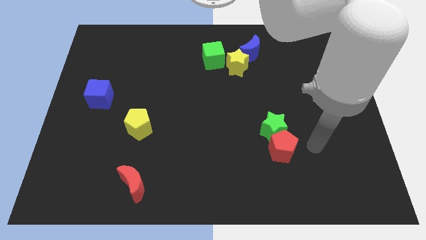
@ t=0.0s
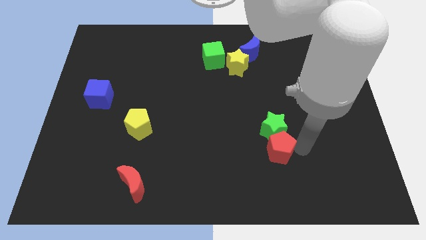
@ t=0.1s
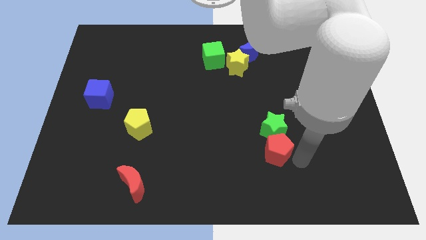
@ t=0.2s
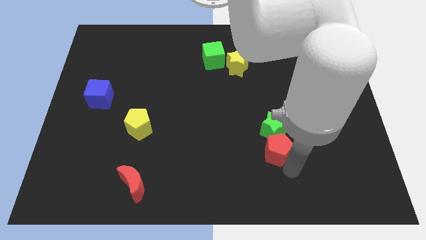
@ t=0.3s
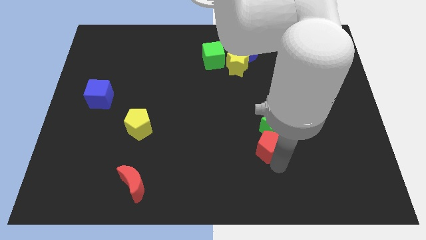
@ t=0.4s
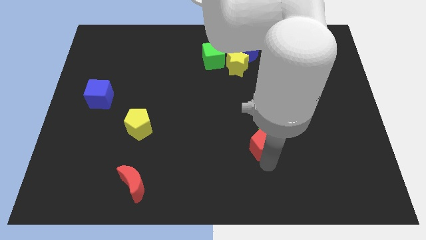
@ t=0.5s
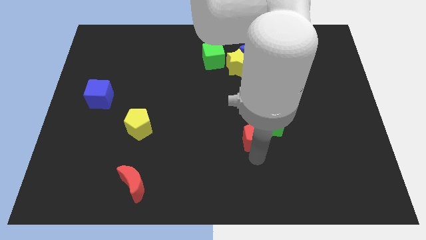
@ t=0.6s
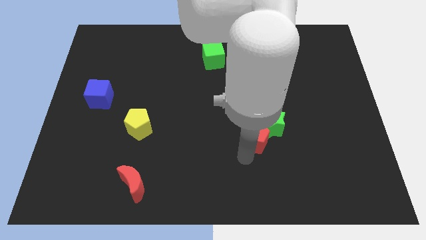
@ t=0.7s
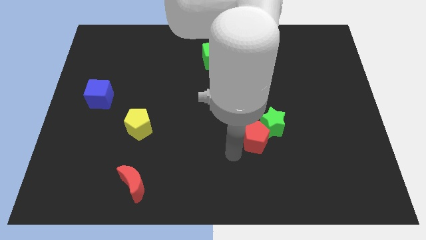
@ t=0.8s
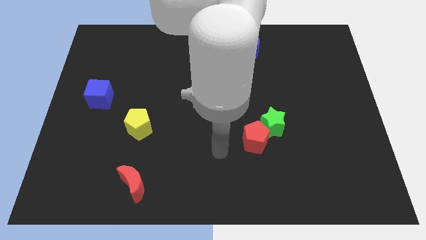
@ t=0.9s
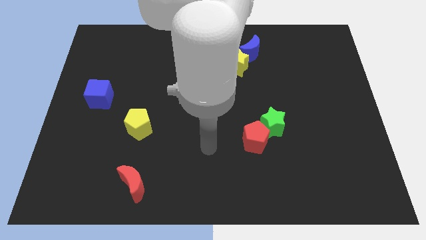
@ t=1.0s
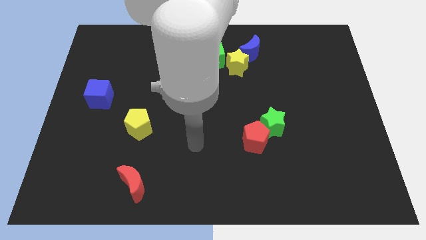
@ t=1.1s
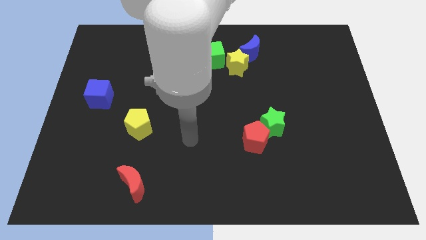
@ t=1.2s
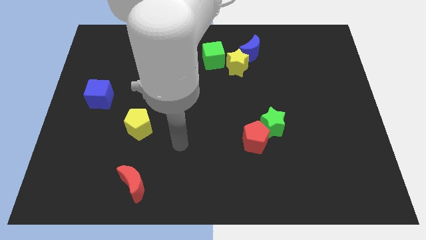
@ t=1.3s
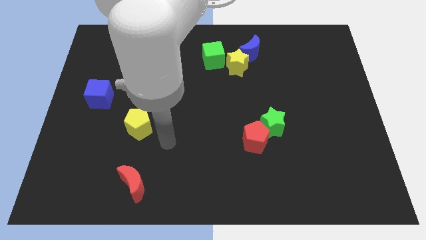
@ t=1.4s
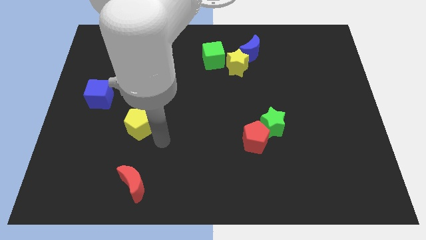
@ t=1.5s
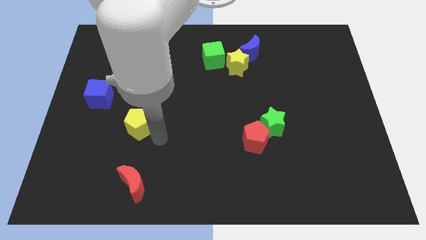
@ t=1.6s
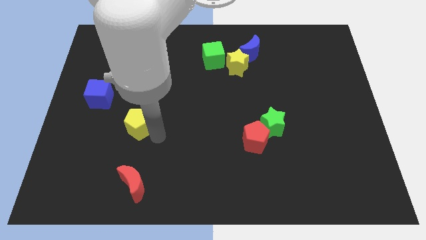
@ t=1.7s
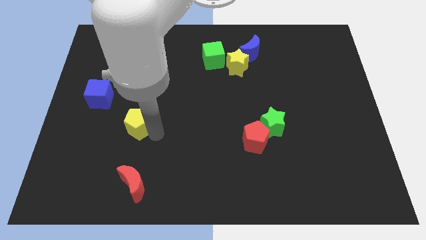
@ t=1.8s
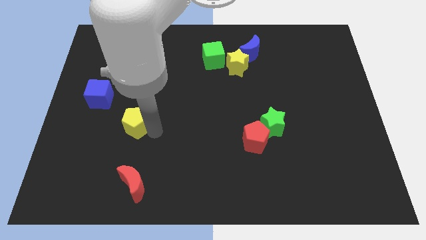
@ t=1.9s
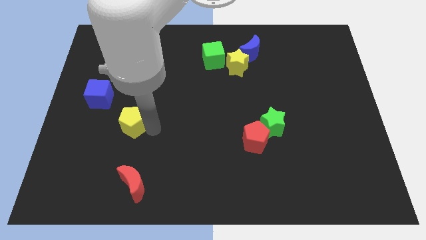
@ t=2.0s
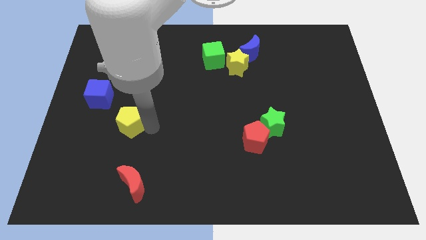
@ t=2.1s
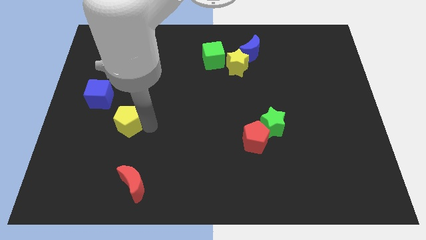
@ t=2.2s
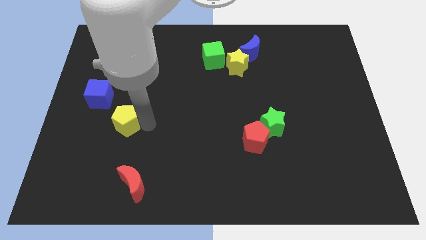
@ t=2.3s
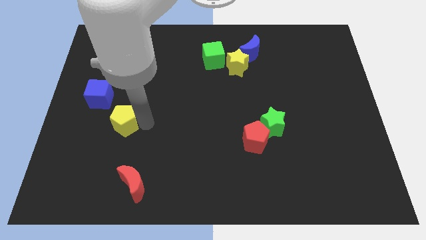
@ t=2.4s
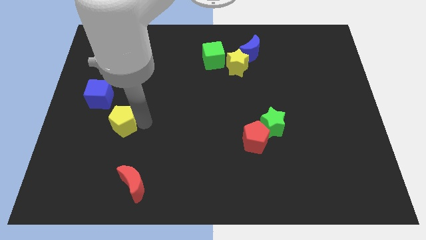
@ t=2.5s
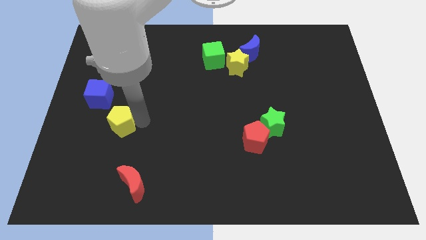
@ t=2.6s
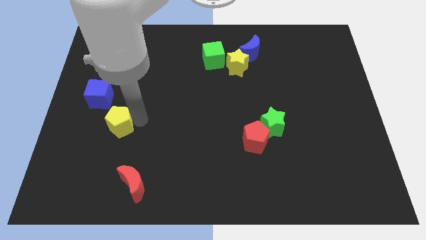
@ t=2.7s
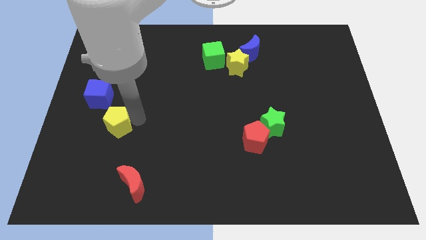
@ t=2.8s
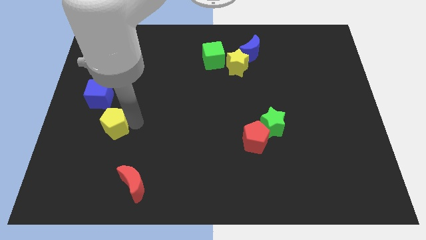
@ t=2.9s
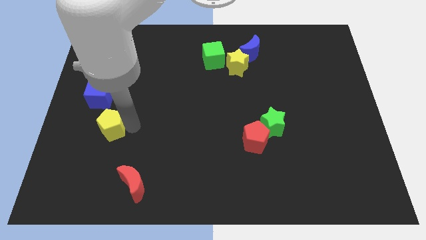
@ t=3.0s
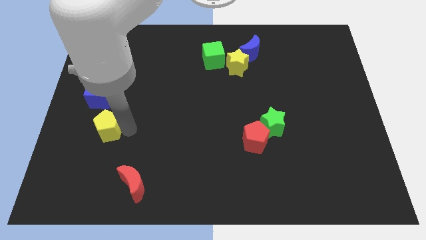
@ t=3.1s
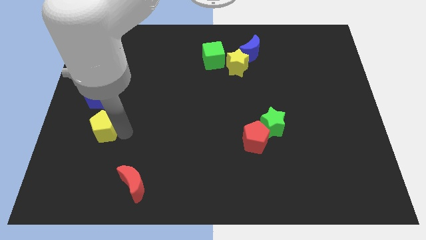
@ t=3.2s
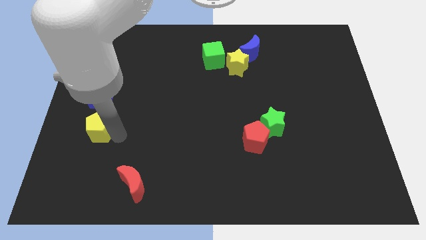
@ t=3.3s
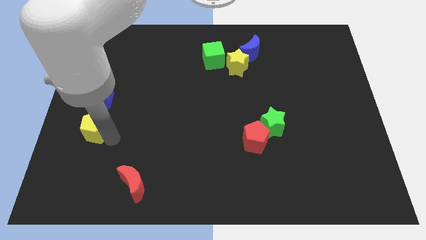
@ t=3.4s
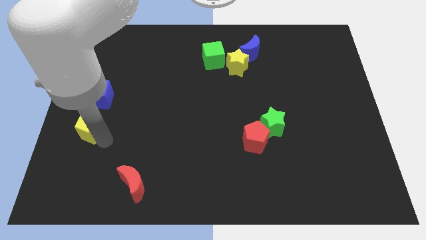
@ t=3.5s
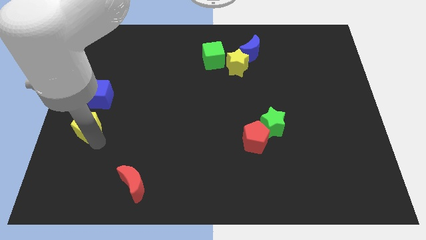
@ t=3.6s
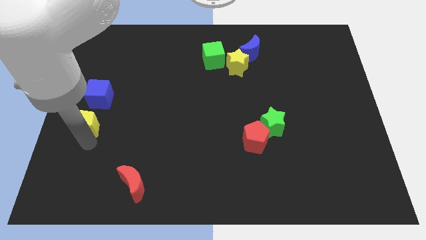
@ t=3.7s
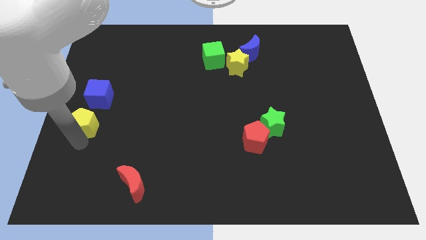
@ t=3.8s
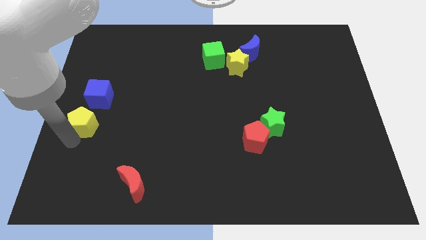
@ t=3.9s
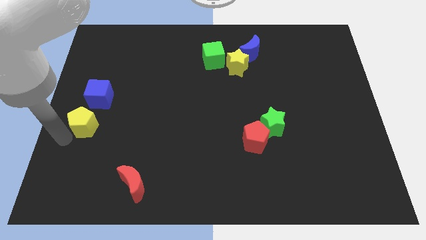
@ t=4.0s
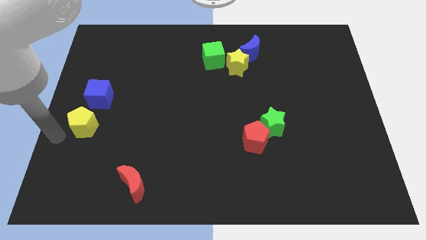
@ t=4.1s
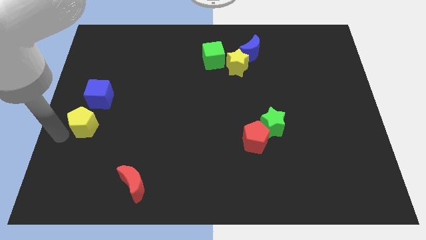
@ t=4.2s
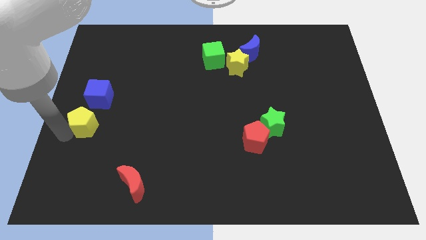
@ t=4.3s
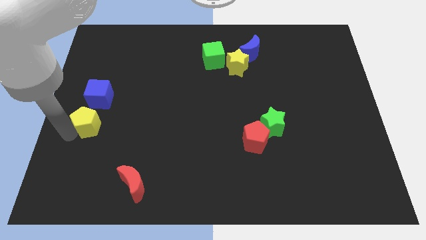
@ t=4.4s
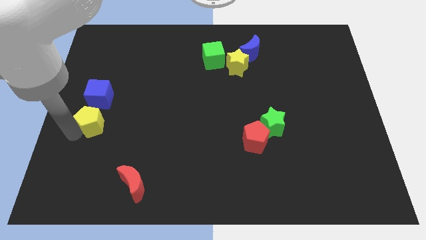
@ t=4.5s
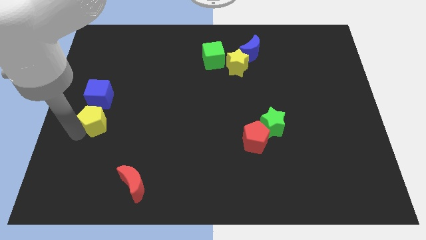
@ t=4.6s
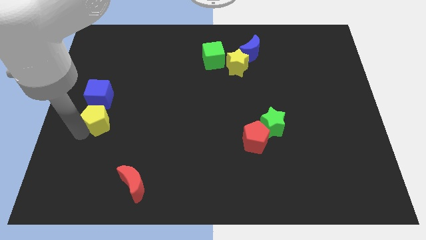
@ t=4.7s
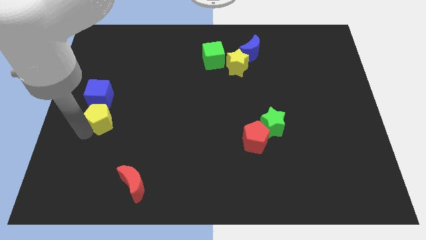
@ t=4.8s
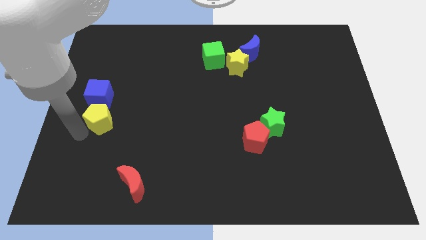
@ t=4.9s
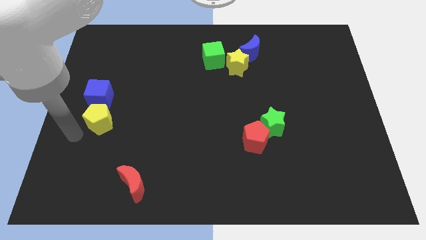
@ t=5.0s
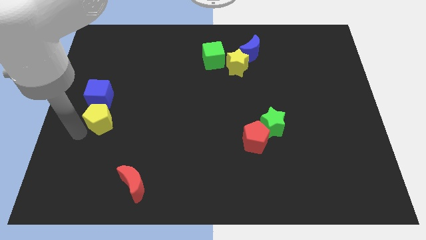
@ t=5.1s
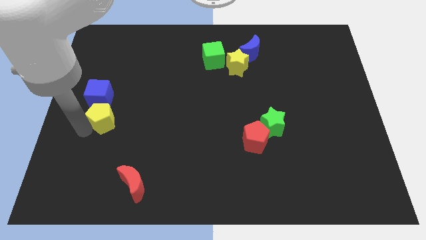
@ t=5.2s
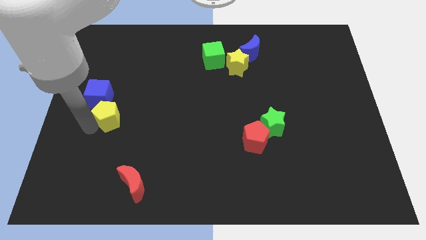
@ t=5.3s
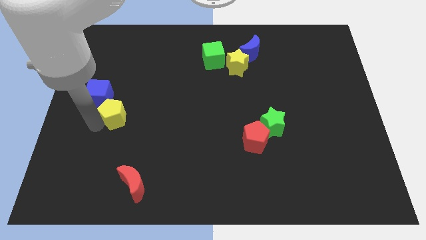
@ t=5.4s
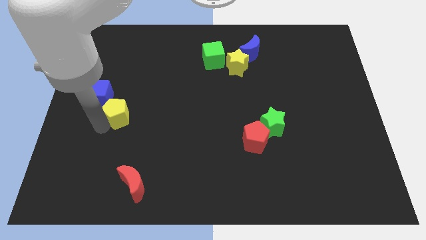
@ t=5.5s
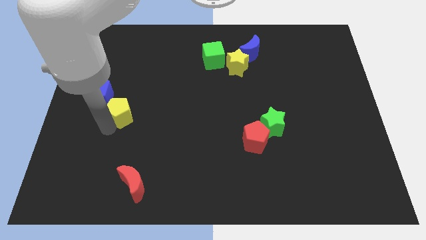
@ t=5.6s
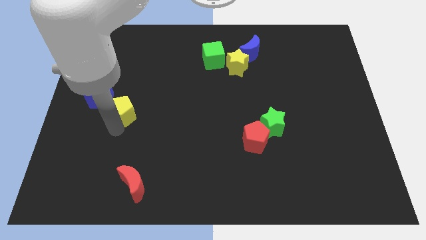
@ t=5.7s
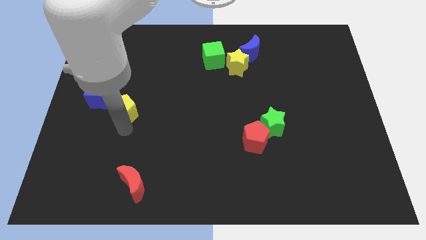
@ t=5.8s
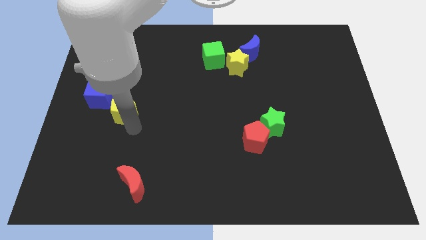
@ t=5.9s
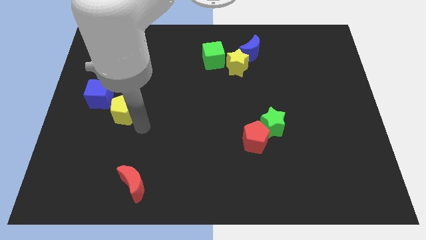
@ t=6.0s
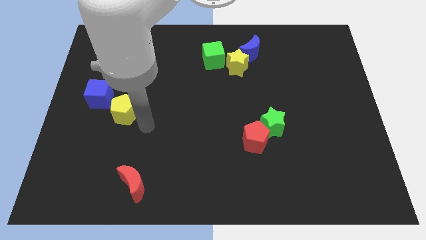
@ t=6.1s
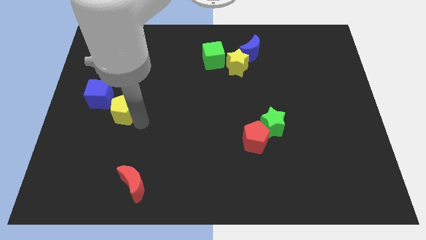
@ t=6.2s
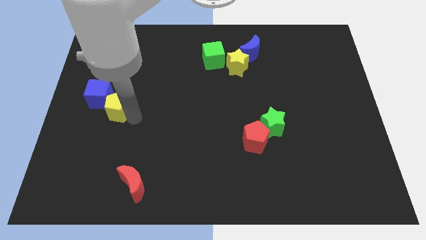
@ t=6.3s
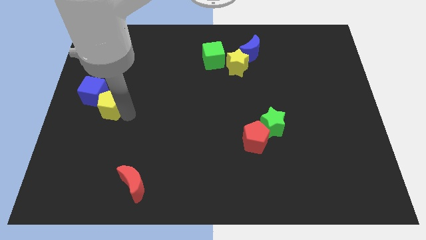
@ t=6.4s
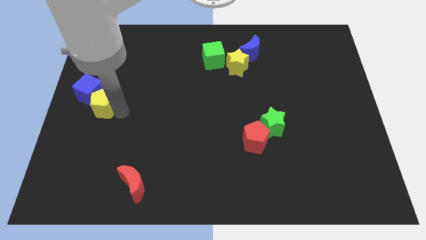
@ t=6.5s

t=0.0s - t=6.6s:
put the yellow pentagon to the blue cube

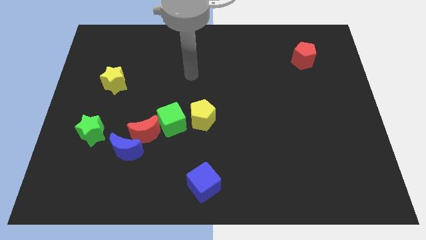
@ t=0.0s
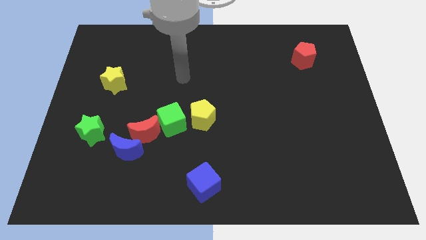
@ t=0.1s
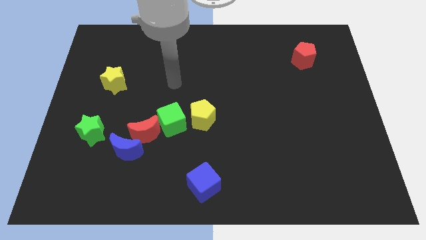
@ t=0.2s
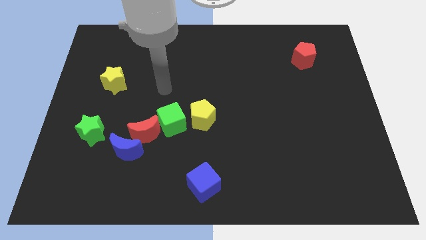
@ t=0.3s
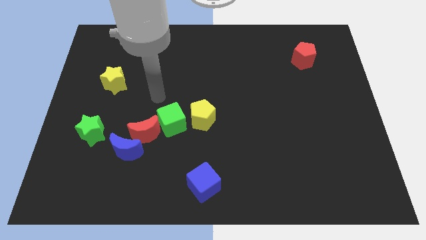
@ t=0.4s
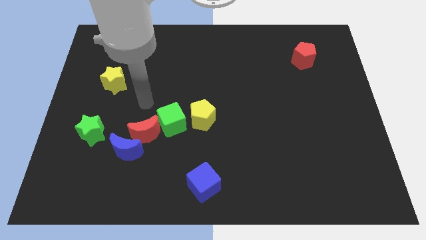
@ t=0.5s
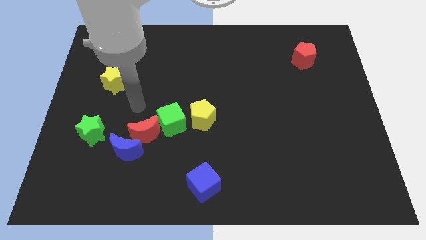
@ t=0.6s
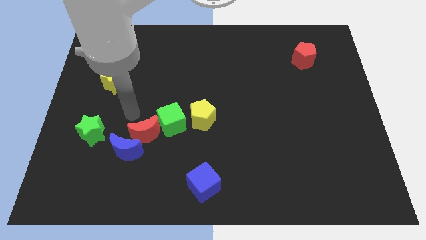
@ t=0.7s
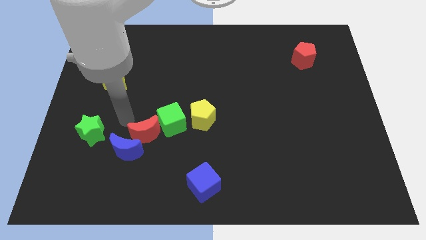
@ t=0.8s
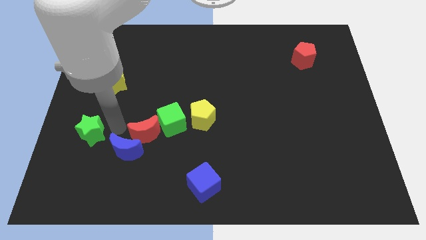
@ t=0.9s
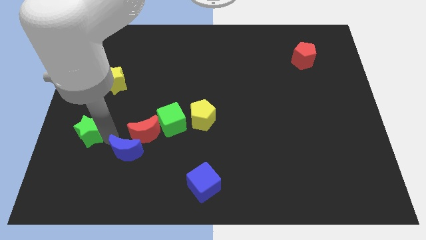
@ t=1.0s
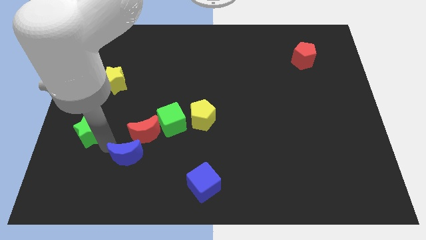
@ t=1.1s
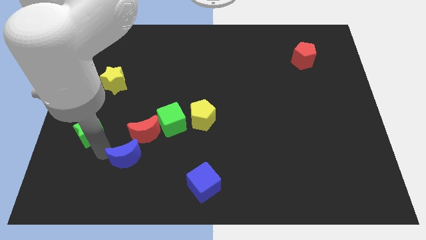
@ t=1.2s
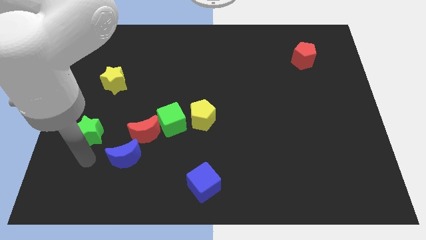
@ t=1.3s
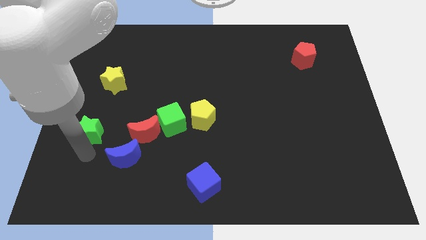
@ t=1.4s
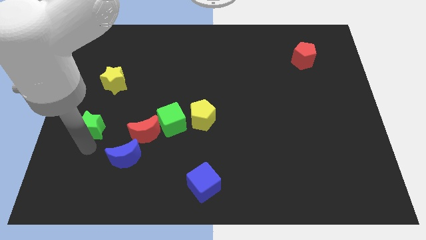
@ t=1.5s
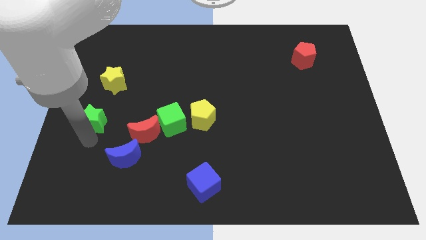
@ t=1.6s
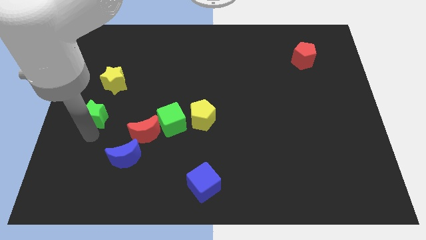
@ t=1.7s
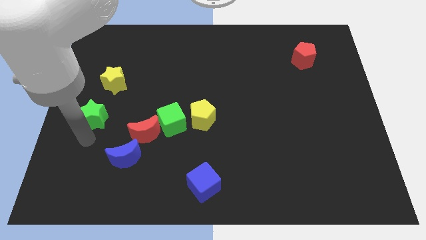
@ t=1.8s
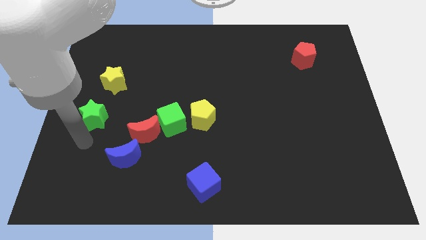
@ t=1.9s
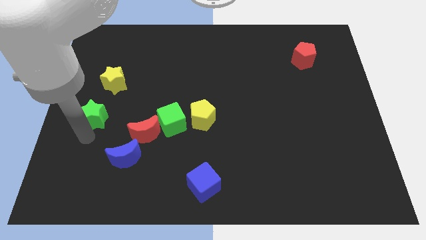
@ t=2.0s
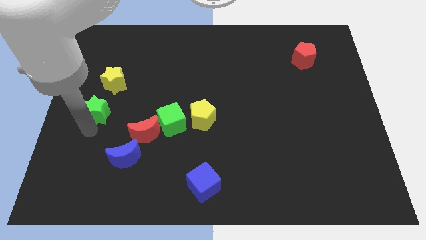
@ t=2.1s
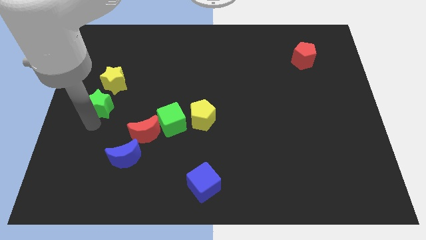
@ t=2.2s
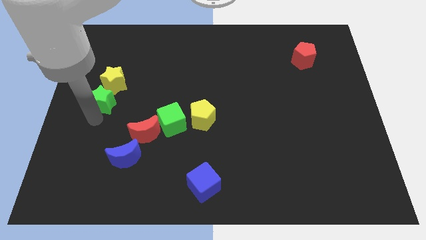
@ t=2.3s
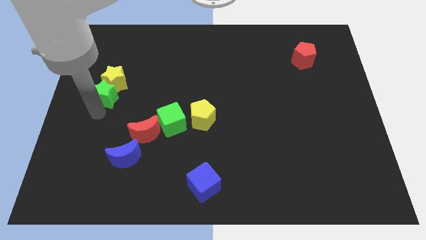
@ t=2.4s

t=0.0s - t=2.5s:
put the green star next to the yellow star
